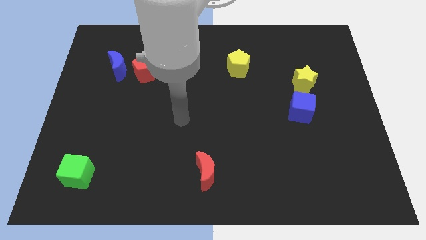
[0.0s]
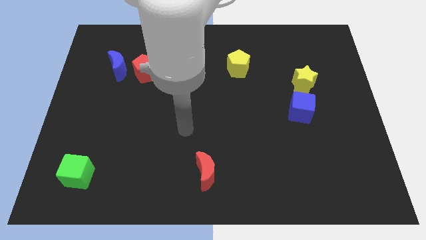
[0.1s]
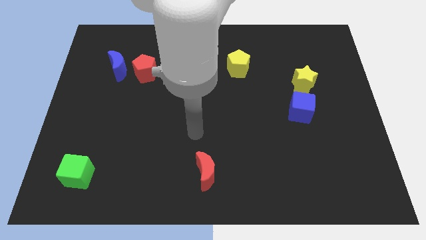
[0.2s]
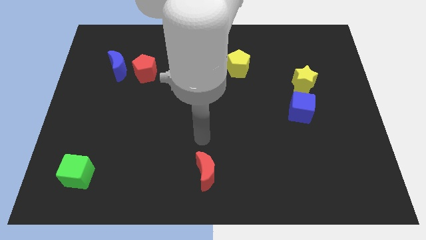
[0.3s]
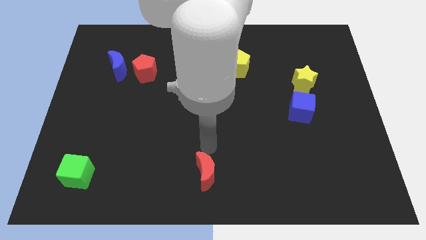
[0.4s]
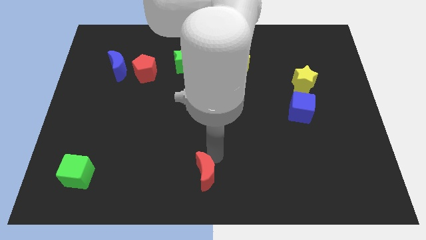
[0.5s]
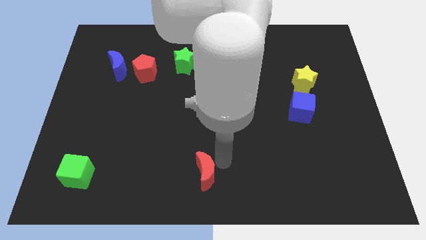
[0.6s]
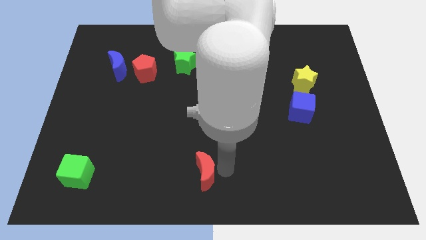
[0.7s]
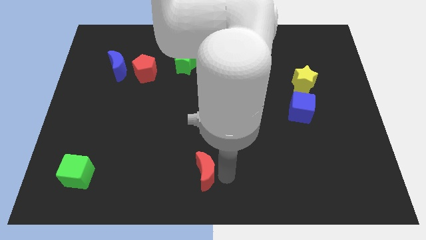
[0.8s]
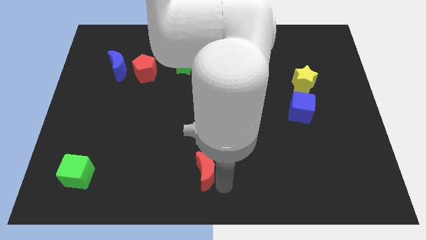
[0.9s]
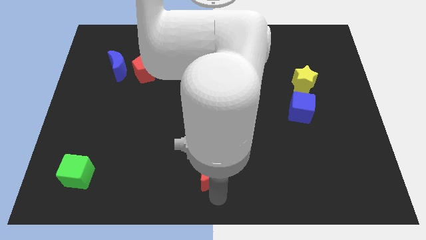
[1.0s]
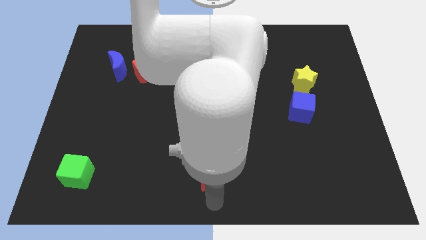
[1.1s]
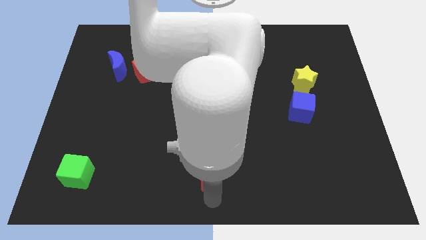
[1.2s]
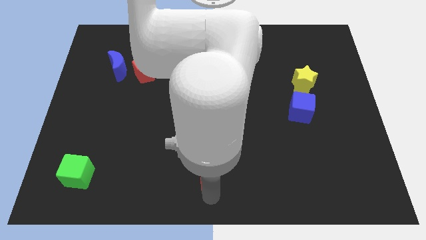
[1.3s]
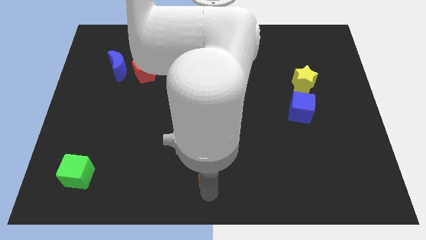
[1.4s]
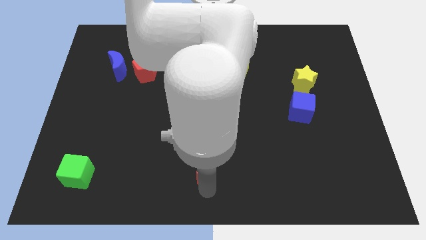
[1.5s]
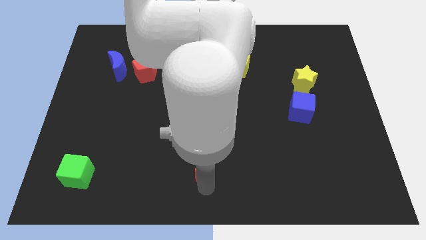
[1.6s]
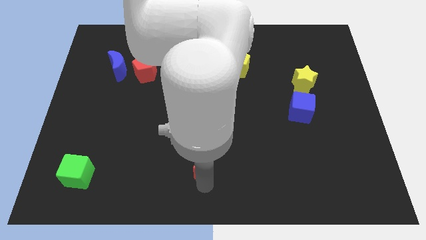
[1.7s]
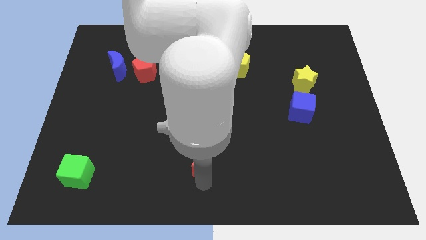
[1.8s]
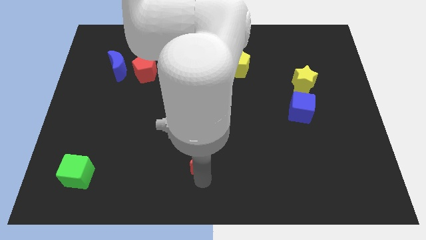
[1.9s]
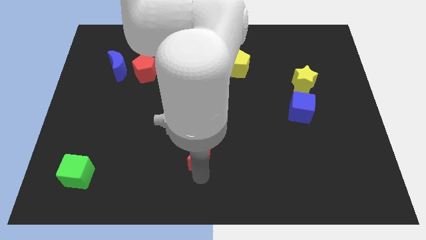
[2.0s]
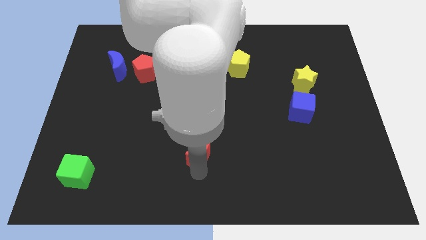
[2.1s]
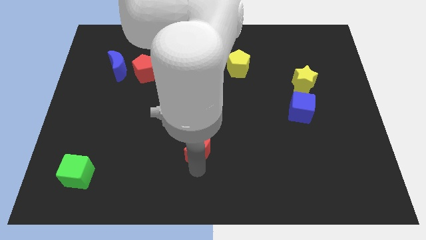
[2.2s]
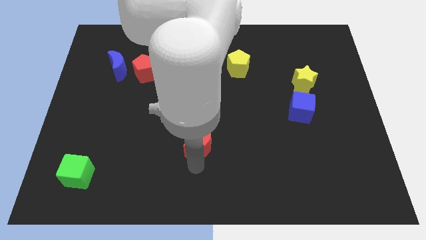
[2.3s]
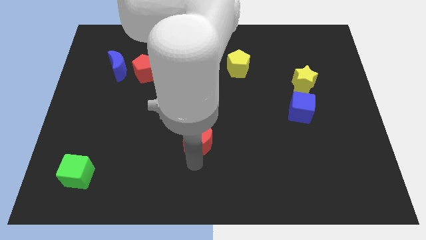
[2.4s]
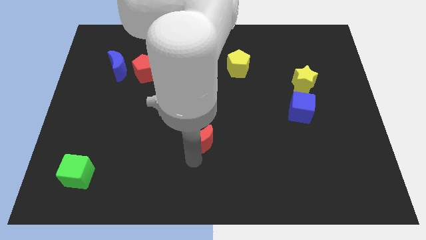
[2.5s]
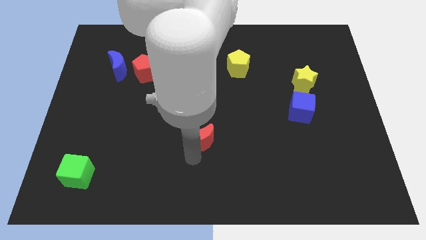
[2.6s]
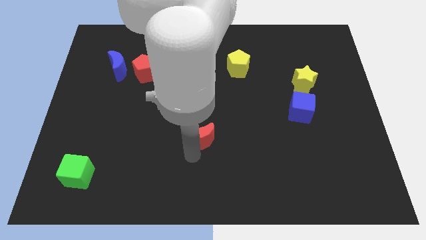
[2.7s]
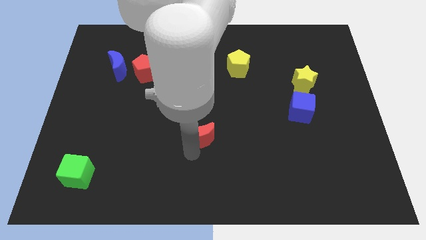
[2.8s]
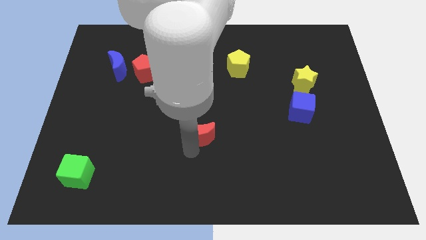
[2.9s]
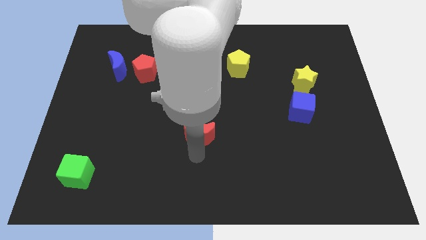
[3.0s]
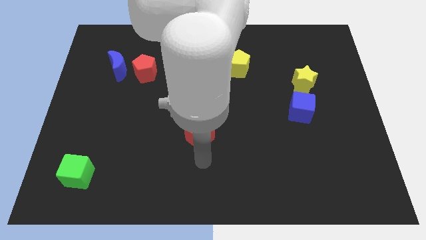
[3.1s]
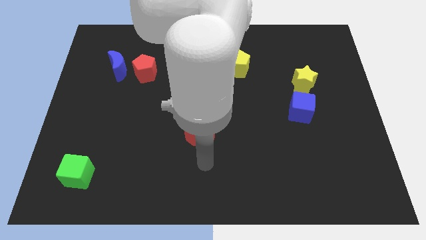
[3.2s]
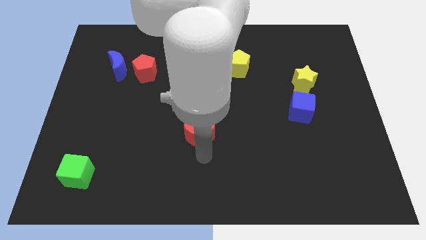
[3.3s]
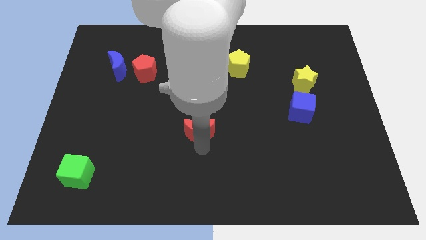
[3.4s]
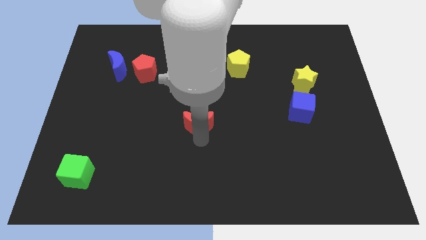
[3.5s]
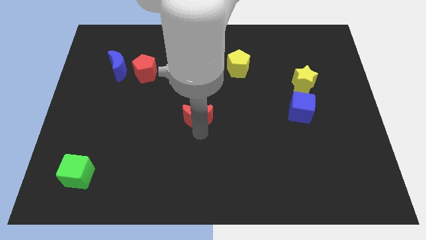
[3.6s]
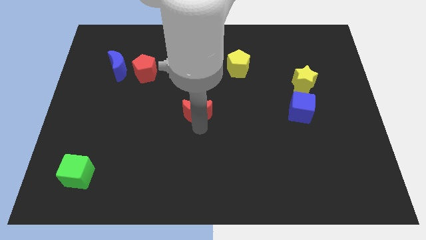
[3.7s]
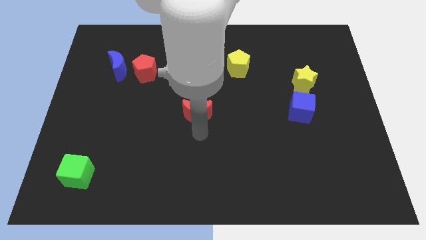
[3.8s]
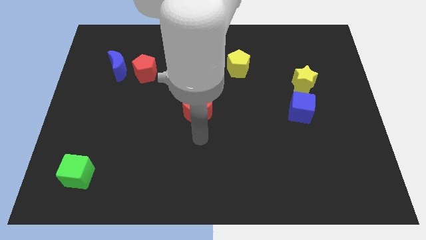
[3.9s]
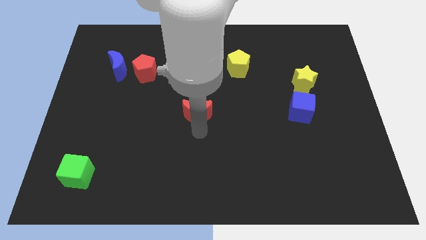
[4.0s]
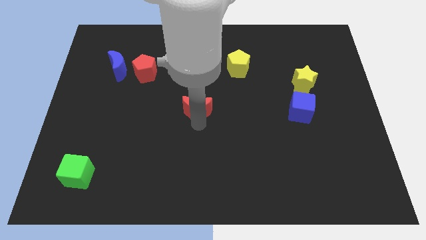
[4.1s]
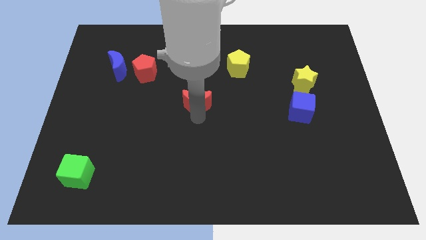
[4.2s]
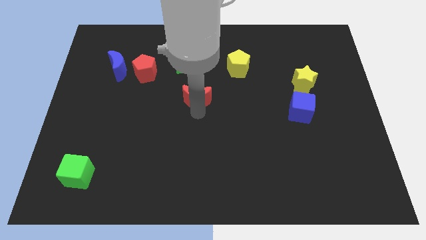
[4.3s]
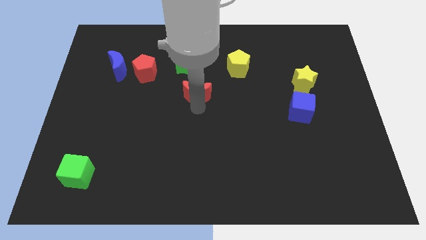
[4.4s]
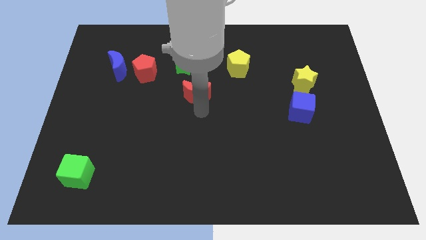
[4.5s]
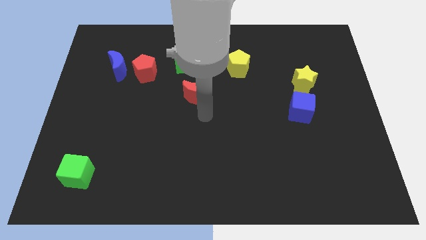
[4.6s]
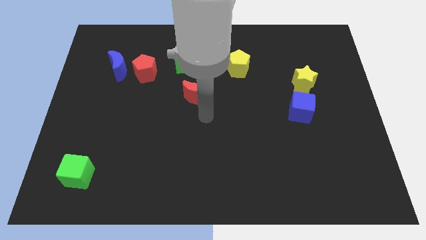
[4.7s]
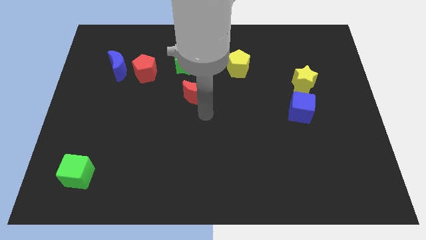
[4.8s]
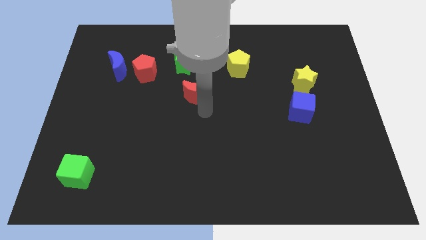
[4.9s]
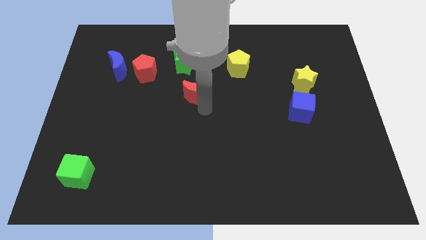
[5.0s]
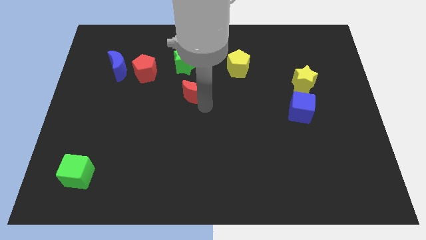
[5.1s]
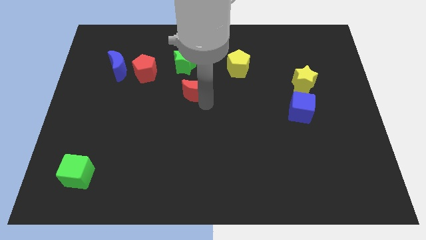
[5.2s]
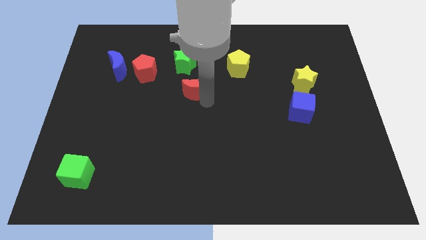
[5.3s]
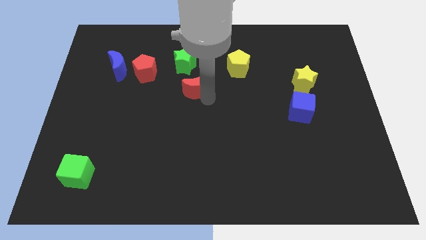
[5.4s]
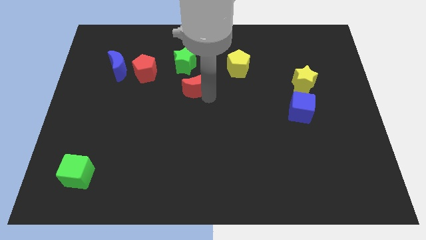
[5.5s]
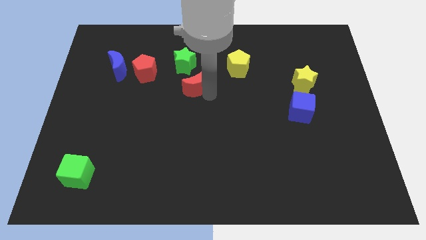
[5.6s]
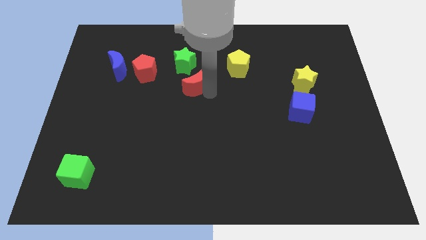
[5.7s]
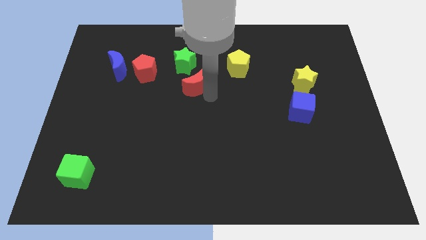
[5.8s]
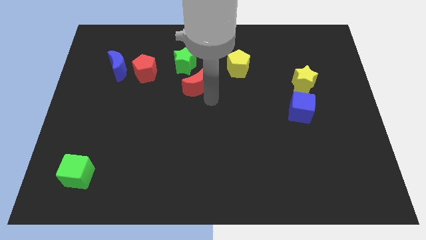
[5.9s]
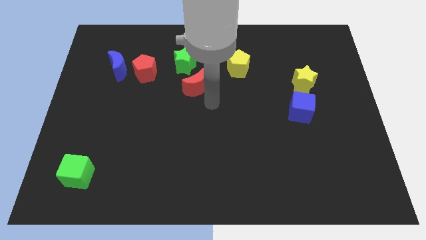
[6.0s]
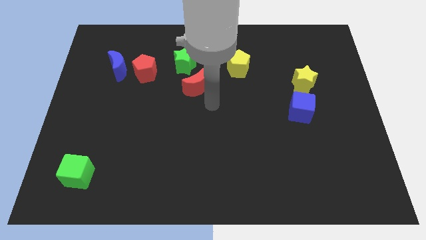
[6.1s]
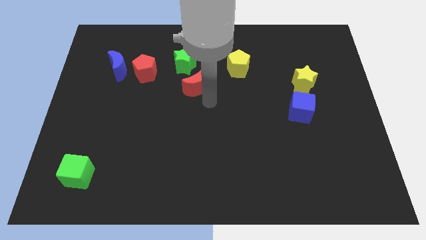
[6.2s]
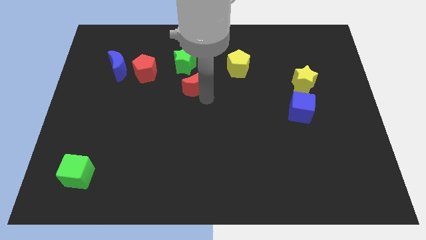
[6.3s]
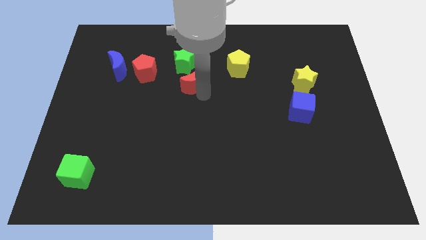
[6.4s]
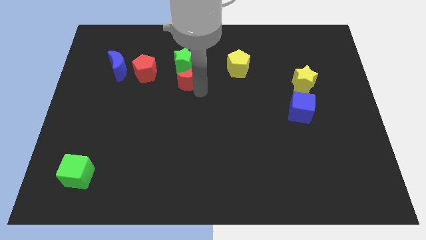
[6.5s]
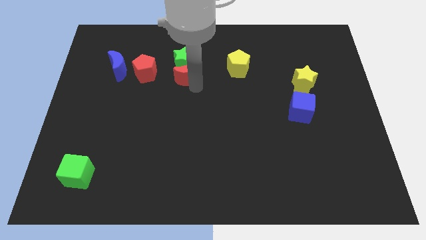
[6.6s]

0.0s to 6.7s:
slide the red moon towards the green star

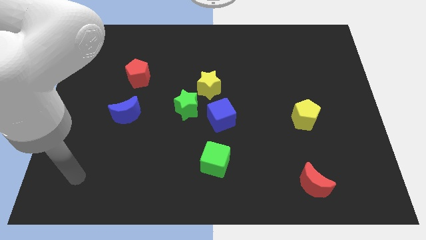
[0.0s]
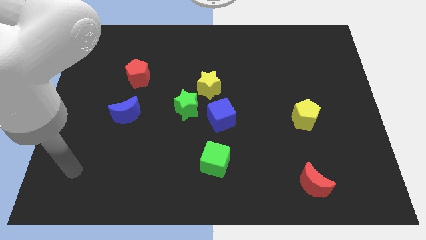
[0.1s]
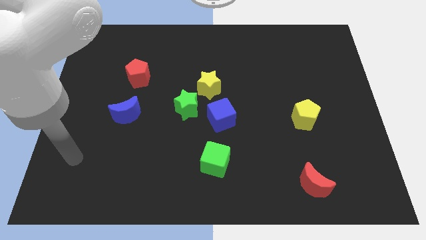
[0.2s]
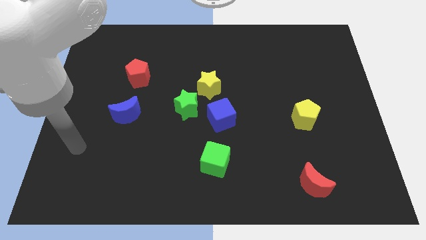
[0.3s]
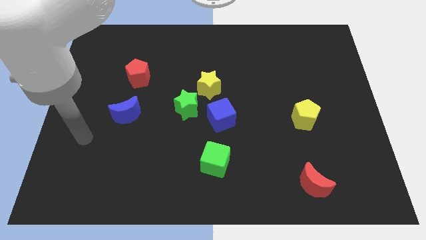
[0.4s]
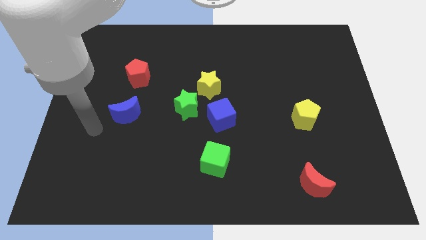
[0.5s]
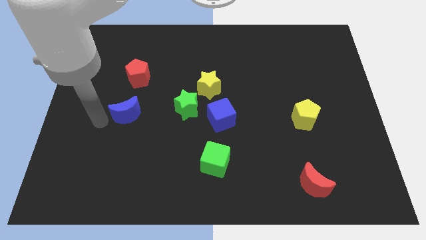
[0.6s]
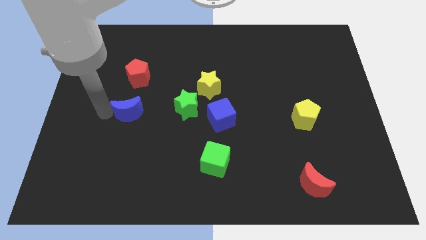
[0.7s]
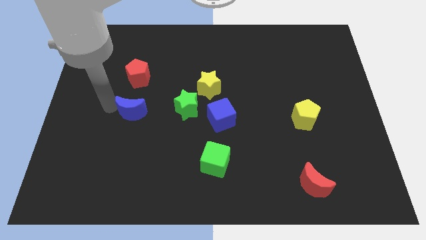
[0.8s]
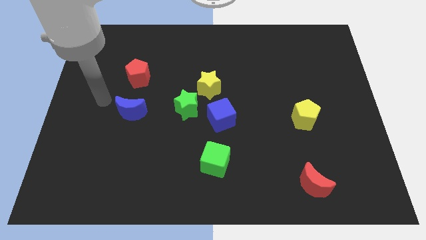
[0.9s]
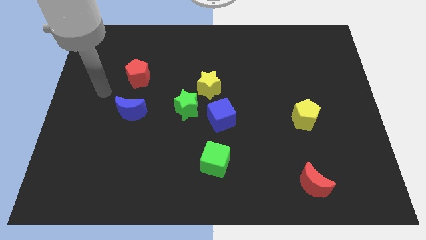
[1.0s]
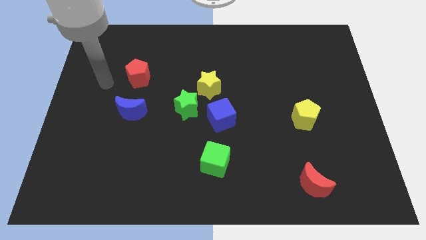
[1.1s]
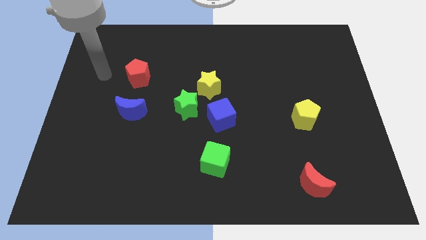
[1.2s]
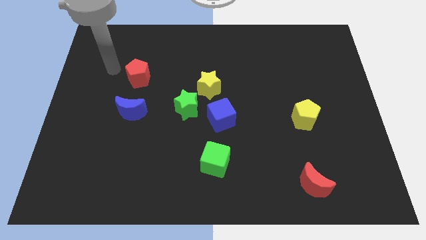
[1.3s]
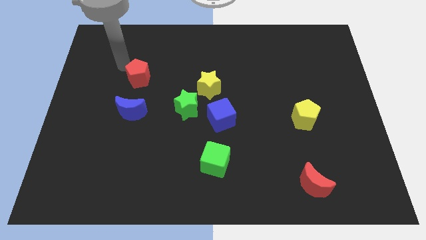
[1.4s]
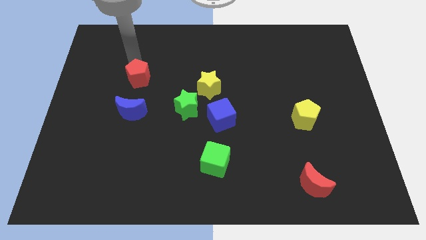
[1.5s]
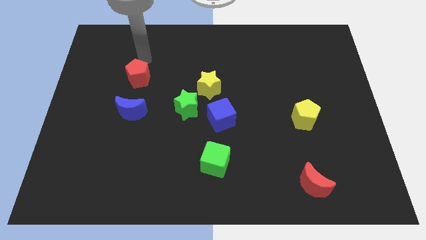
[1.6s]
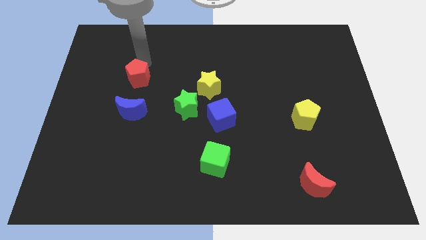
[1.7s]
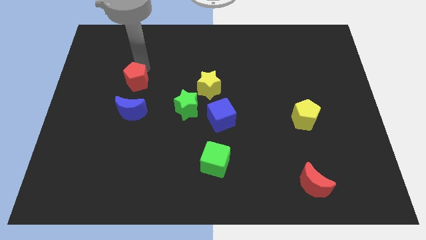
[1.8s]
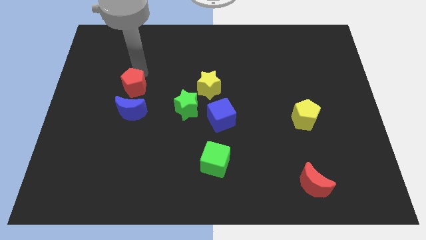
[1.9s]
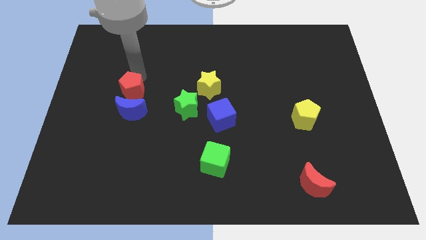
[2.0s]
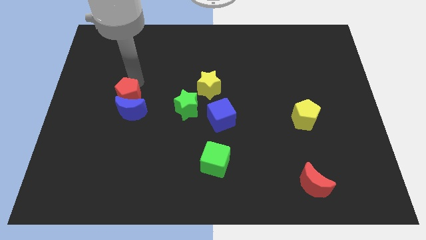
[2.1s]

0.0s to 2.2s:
put the red pentagon close to the blue moon
